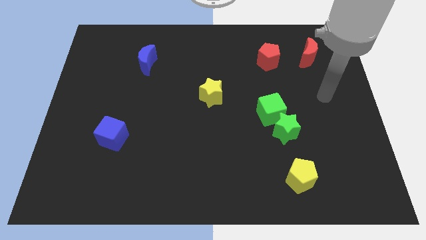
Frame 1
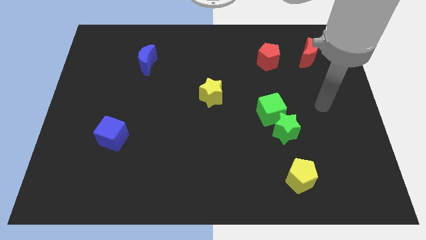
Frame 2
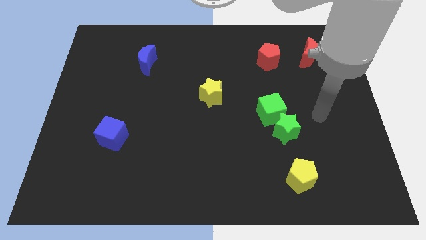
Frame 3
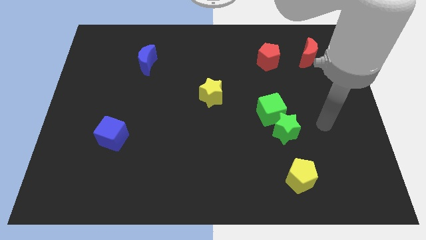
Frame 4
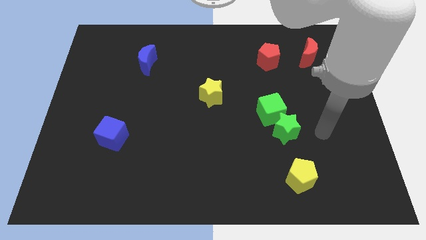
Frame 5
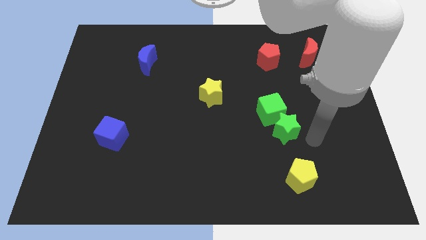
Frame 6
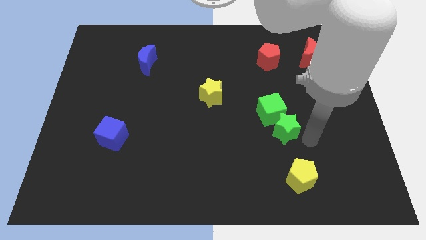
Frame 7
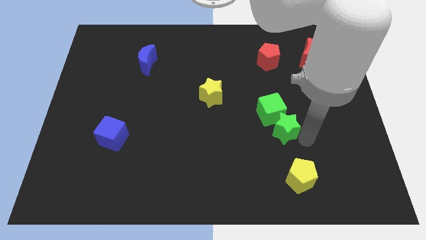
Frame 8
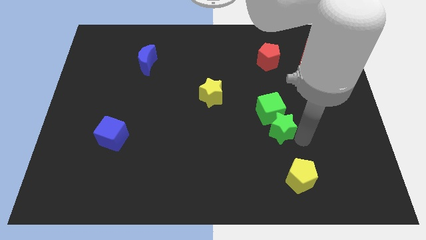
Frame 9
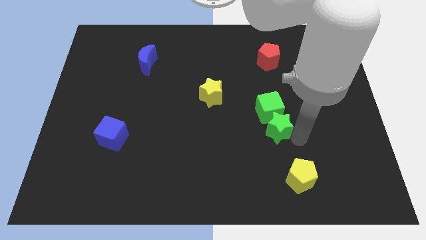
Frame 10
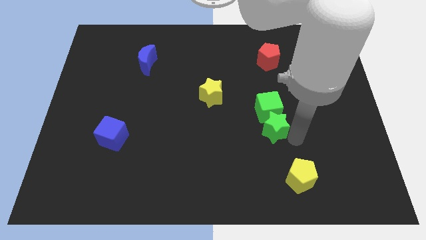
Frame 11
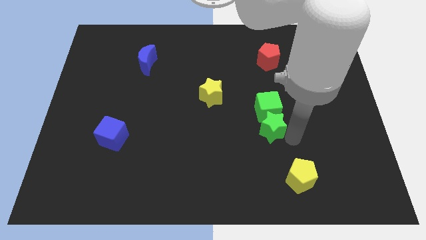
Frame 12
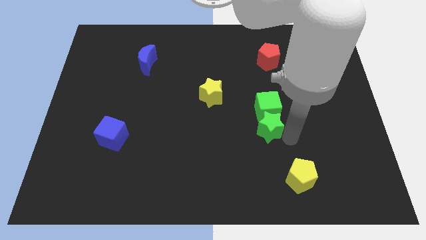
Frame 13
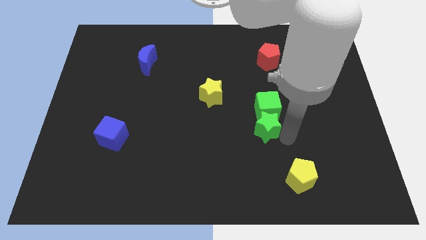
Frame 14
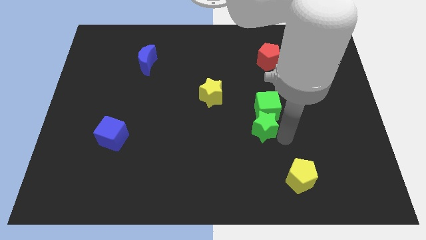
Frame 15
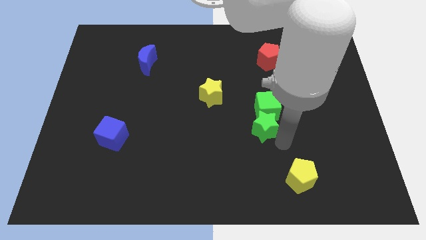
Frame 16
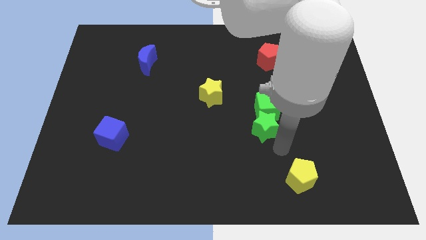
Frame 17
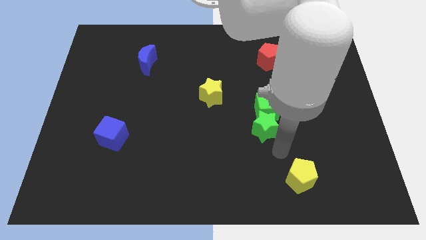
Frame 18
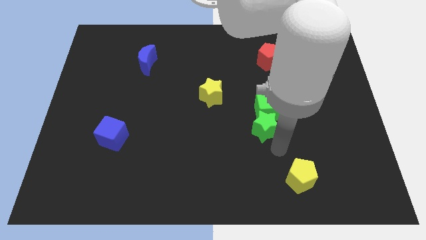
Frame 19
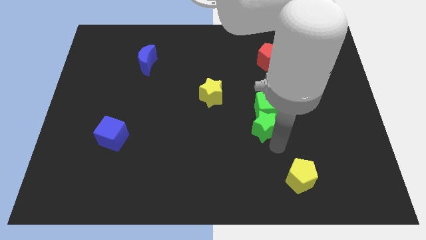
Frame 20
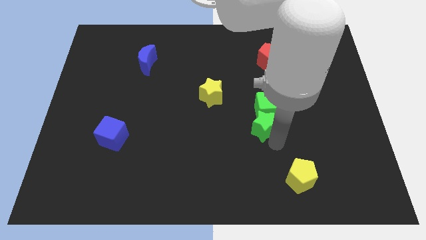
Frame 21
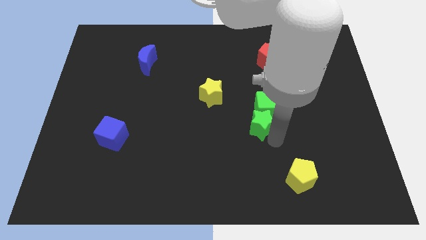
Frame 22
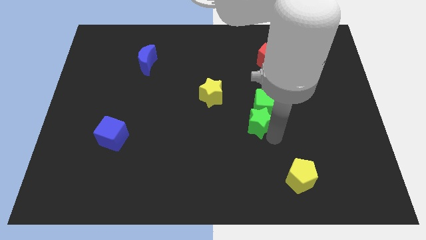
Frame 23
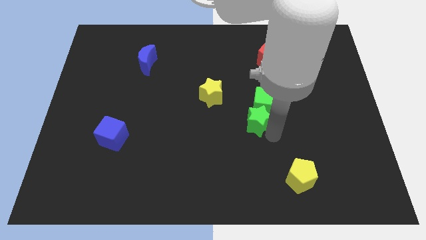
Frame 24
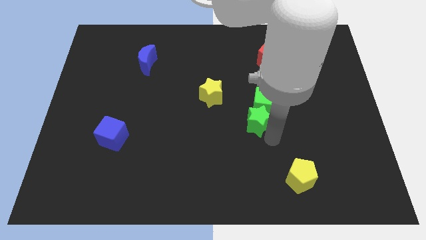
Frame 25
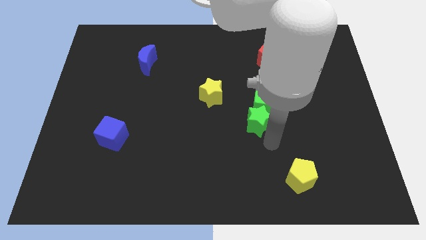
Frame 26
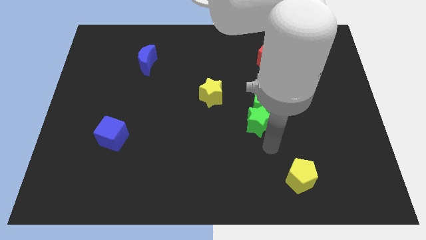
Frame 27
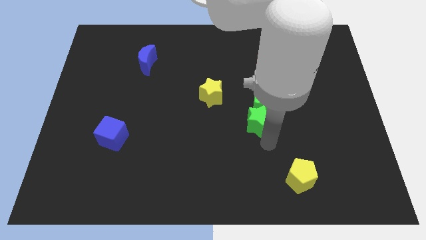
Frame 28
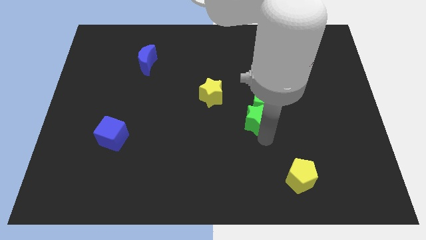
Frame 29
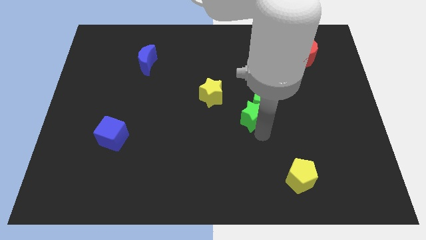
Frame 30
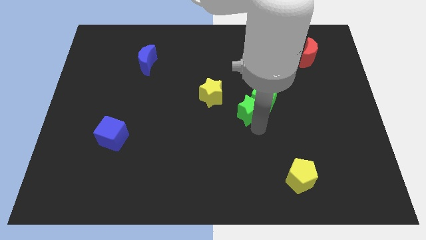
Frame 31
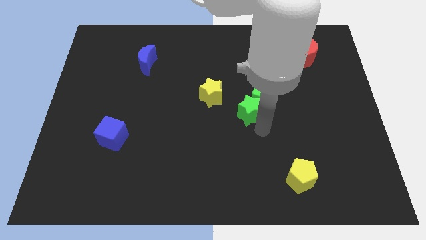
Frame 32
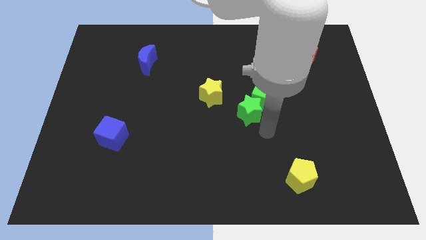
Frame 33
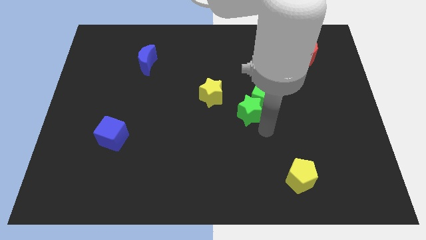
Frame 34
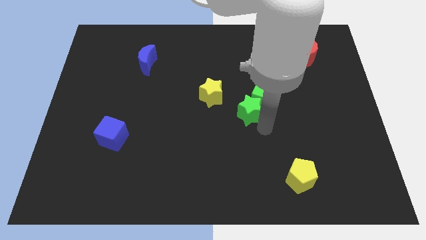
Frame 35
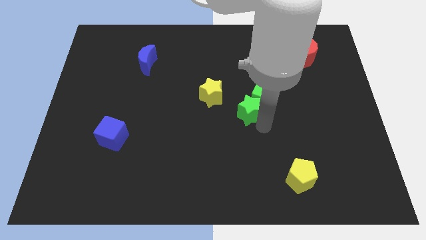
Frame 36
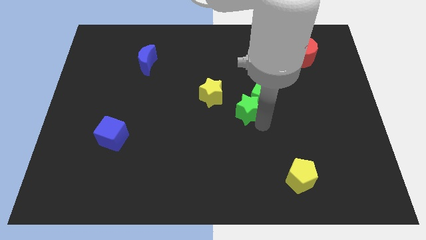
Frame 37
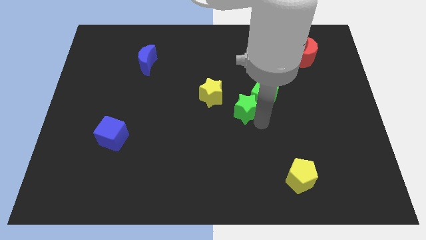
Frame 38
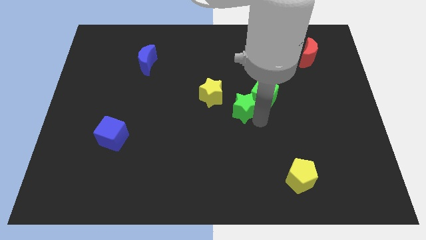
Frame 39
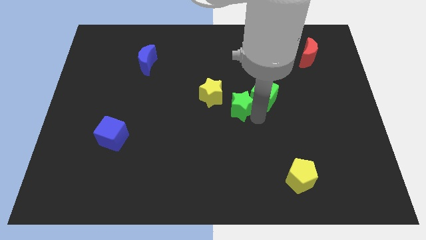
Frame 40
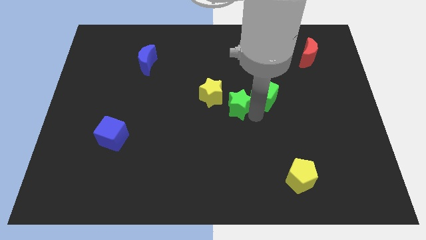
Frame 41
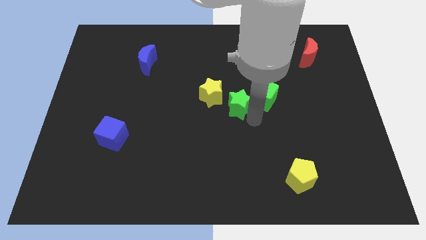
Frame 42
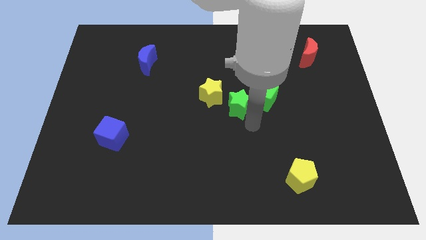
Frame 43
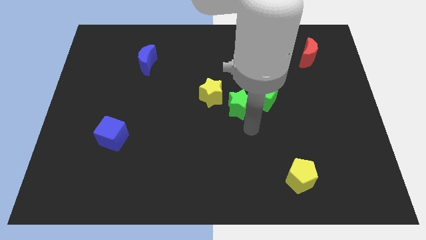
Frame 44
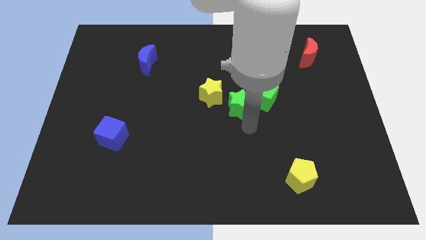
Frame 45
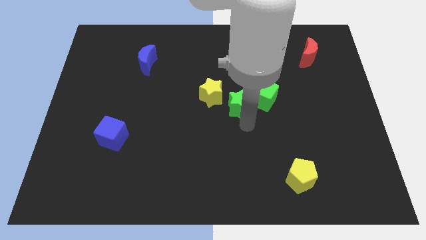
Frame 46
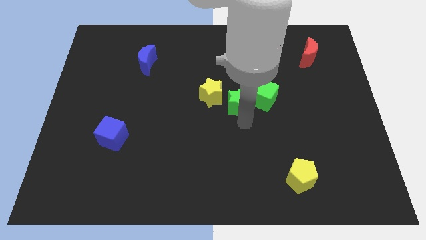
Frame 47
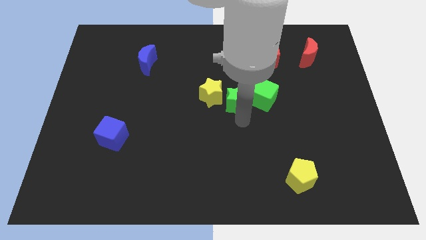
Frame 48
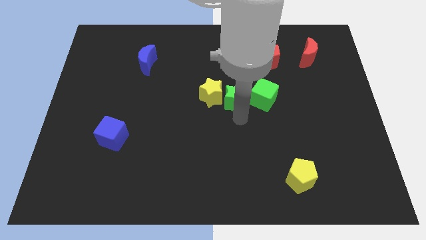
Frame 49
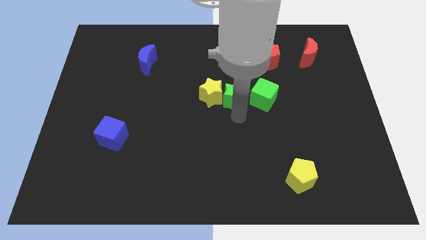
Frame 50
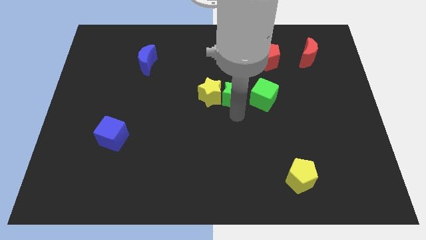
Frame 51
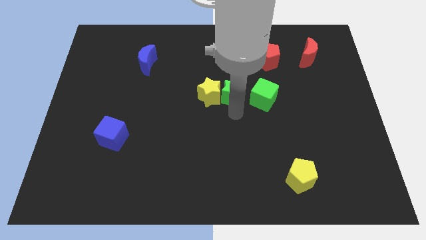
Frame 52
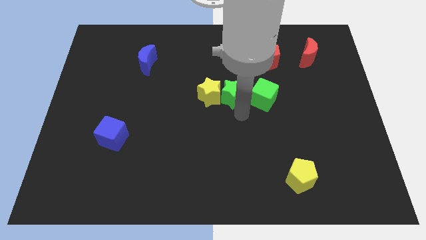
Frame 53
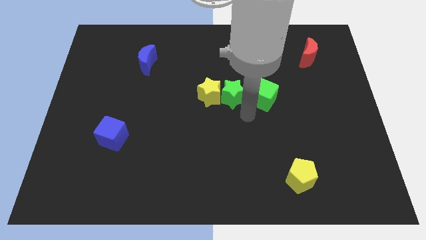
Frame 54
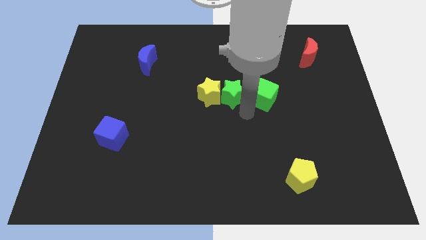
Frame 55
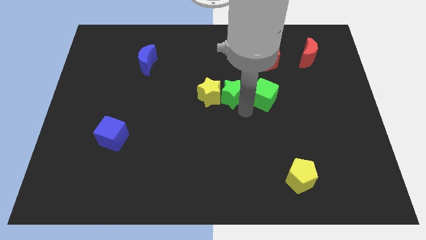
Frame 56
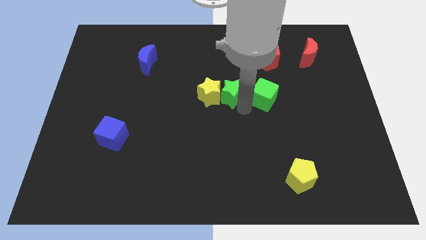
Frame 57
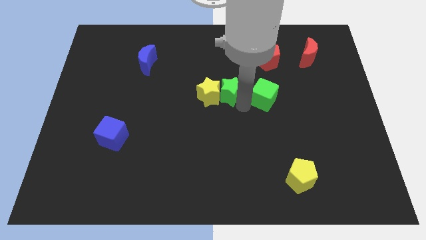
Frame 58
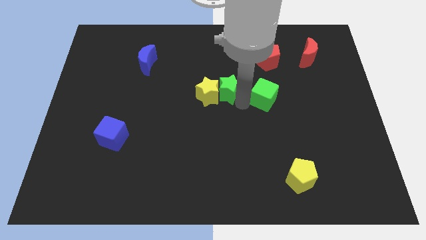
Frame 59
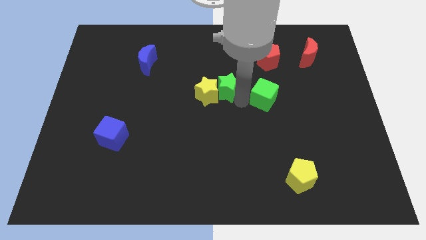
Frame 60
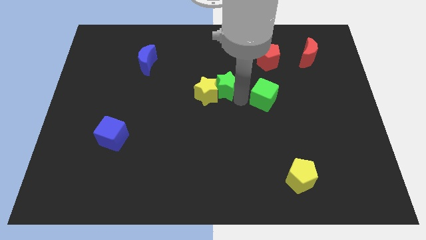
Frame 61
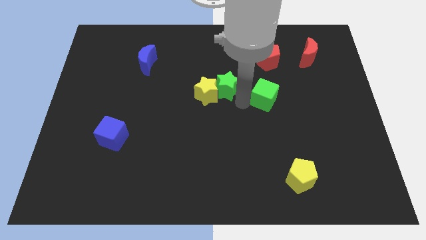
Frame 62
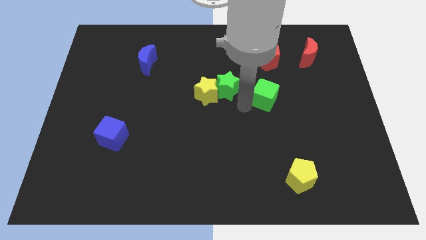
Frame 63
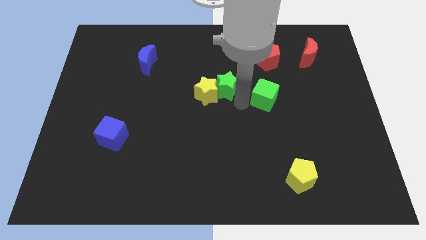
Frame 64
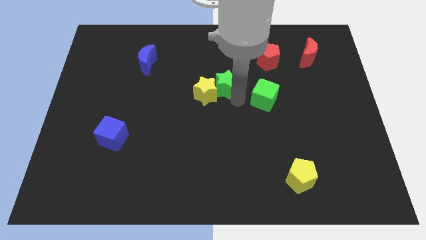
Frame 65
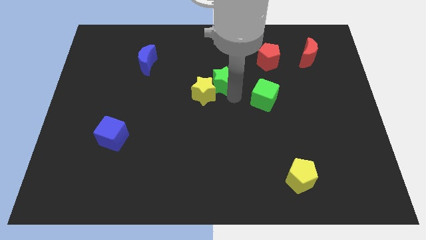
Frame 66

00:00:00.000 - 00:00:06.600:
slide the green star up and to the left

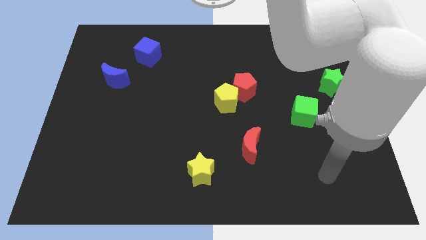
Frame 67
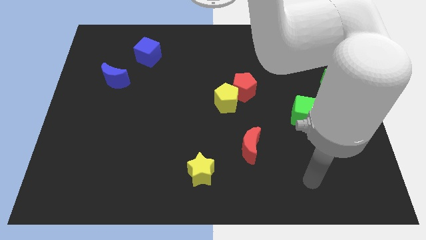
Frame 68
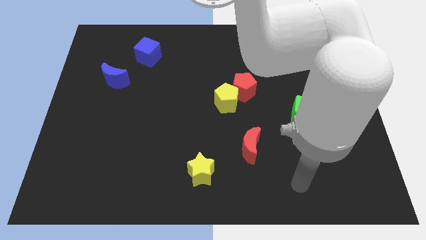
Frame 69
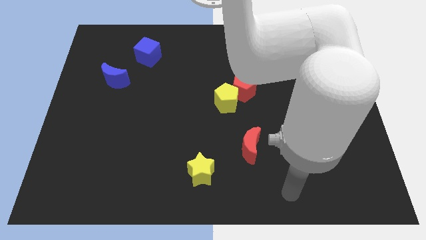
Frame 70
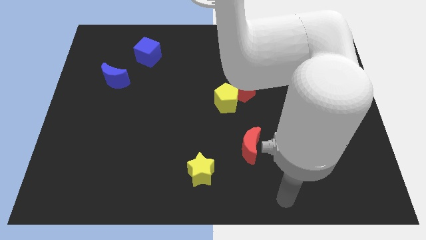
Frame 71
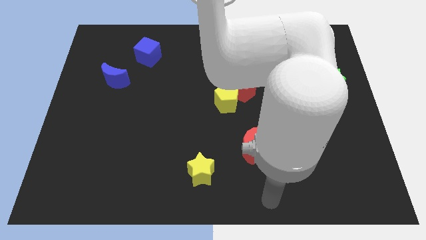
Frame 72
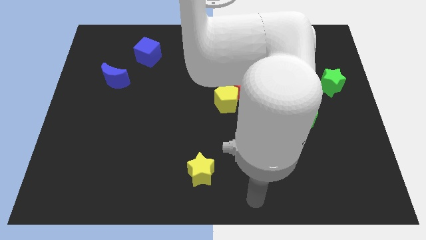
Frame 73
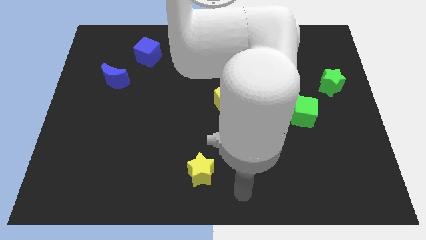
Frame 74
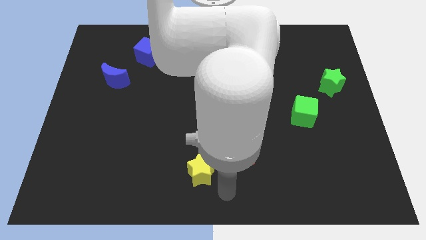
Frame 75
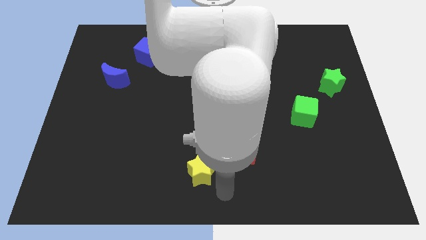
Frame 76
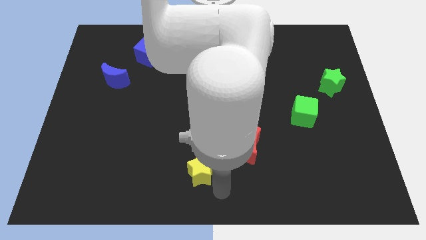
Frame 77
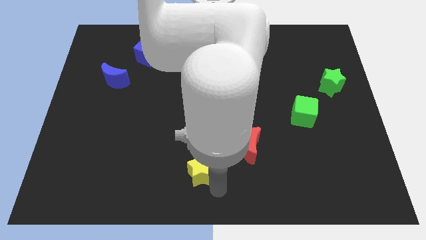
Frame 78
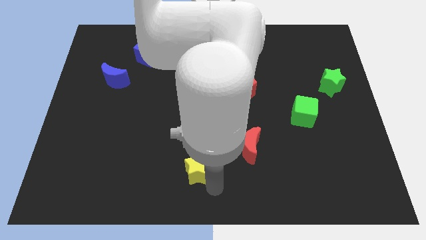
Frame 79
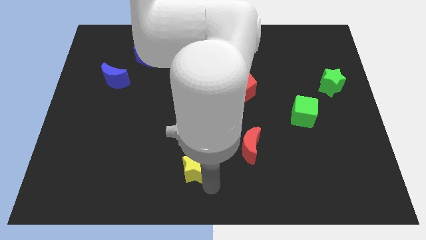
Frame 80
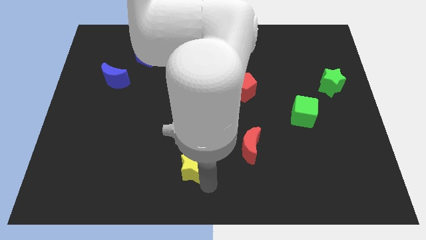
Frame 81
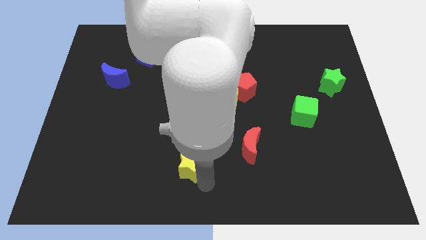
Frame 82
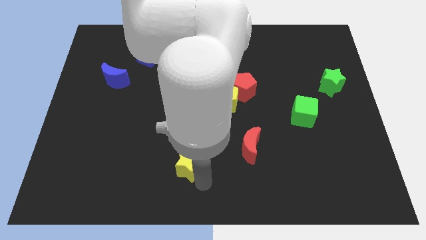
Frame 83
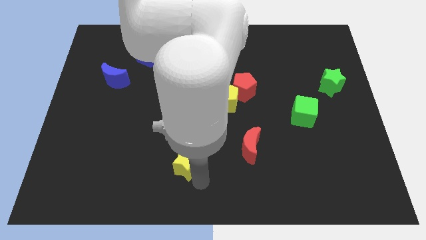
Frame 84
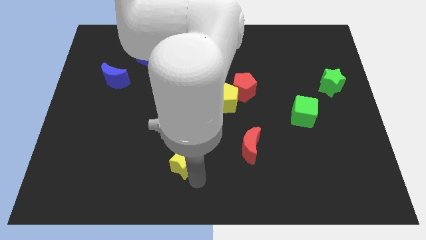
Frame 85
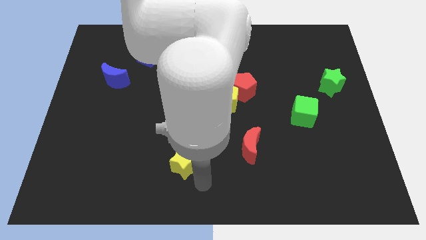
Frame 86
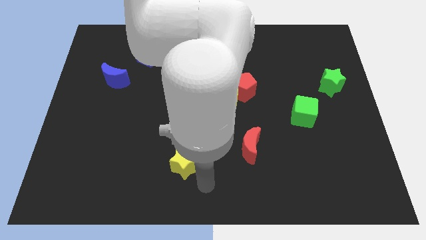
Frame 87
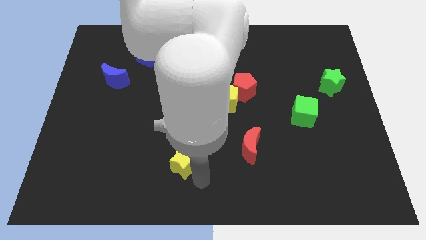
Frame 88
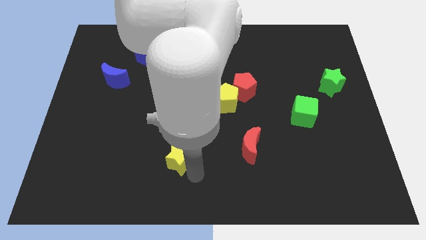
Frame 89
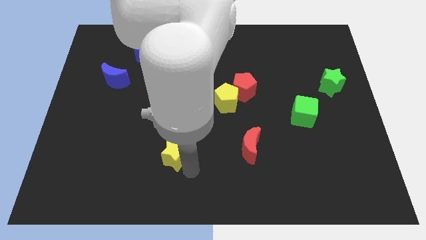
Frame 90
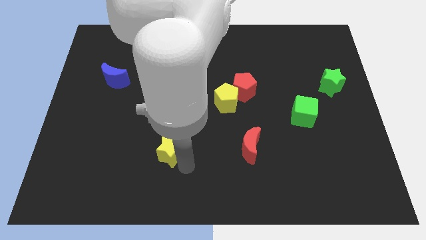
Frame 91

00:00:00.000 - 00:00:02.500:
slide the yellow star diagonally upwards and left a little
